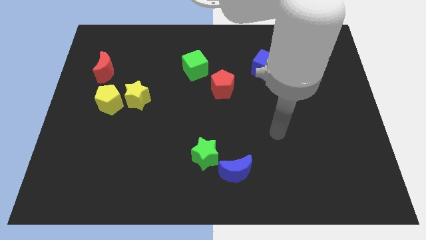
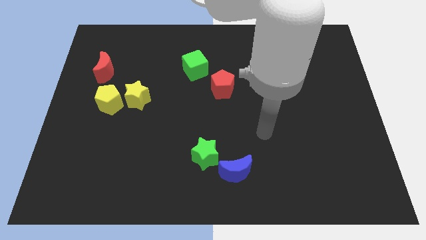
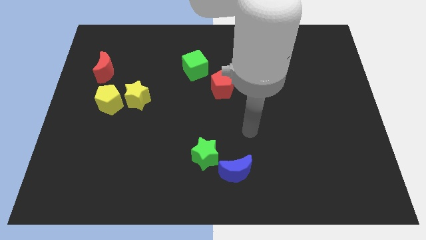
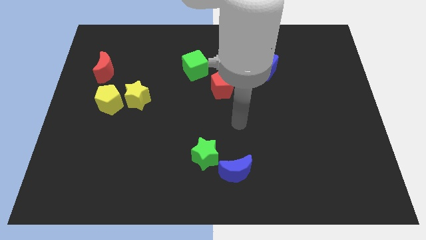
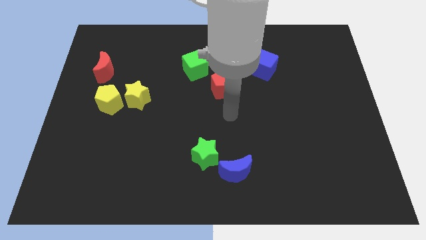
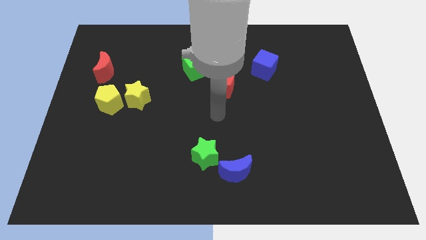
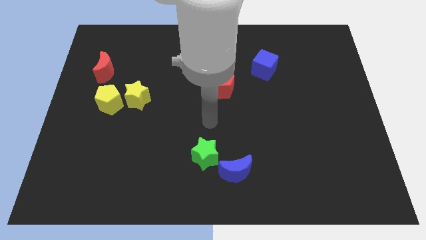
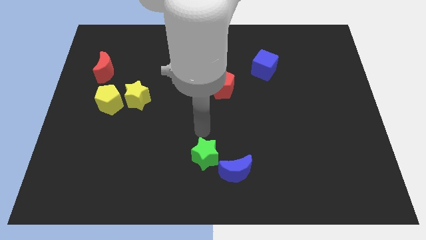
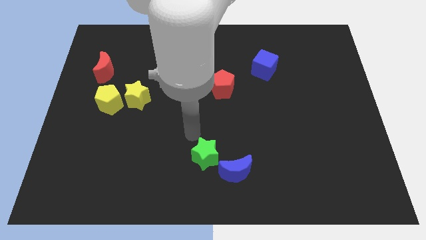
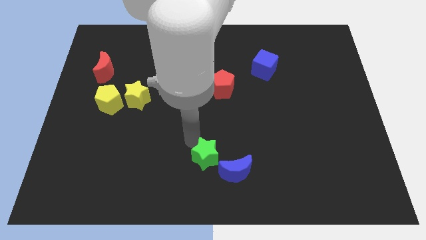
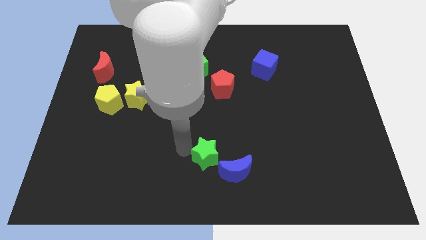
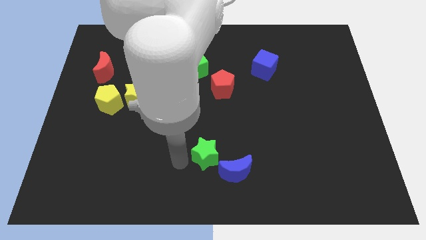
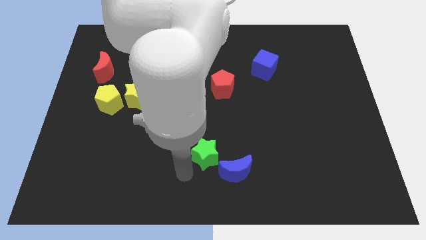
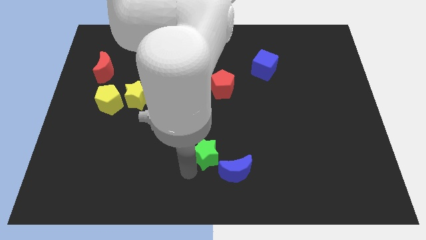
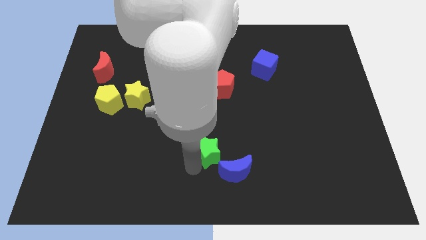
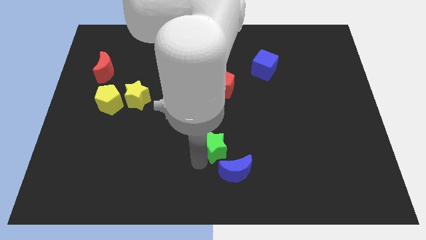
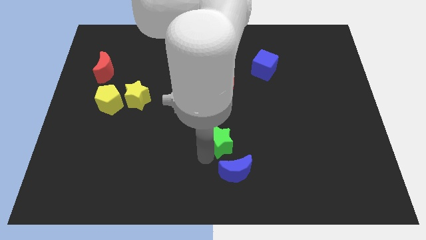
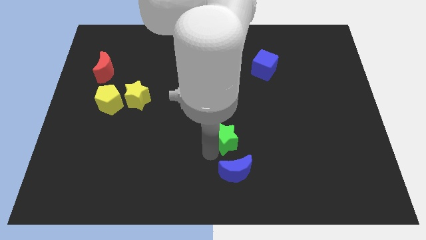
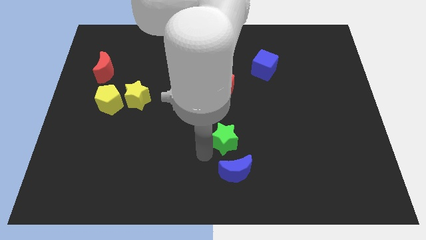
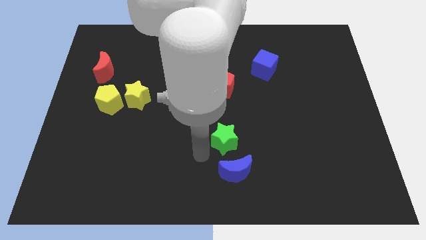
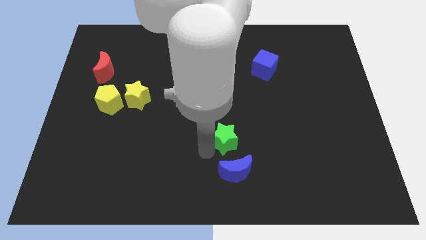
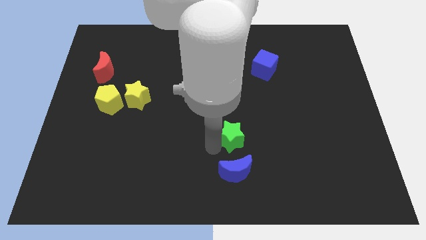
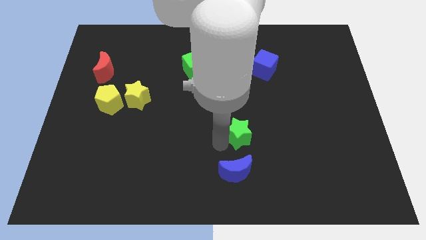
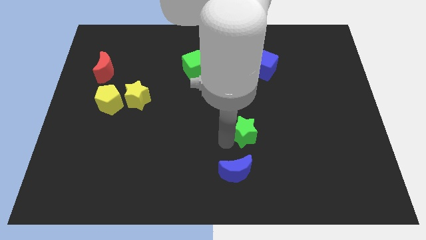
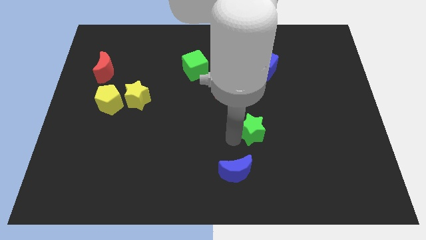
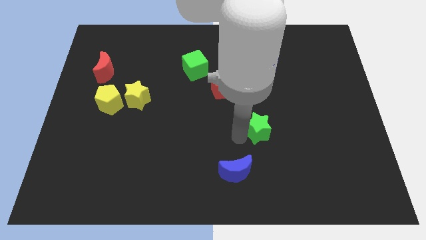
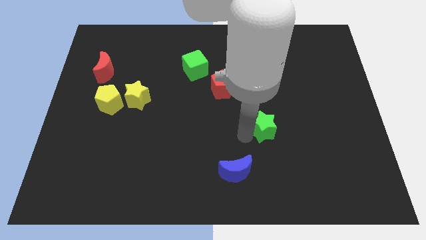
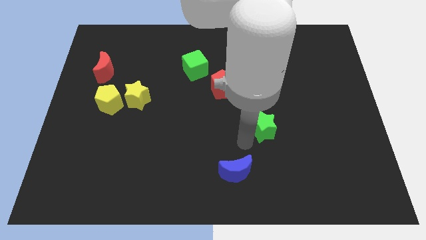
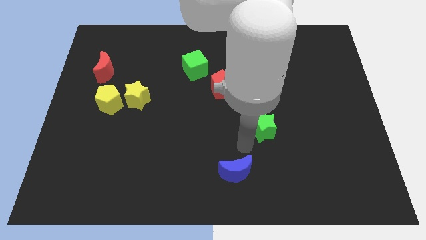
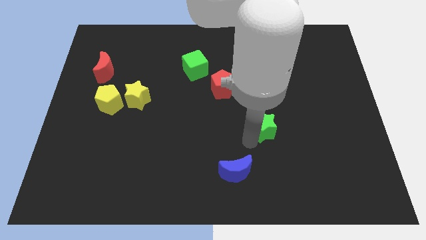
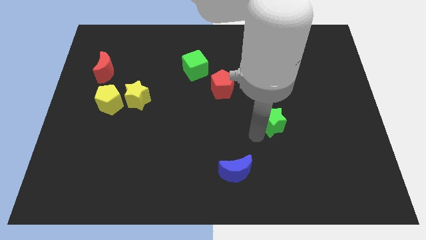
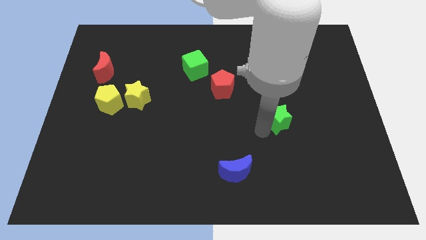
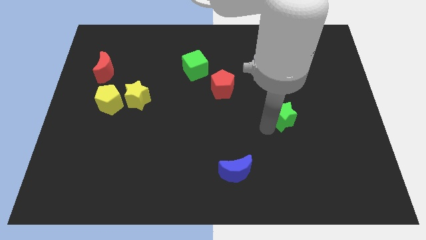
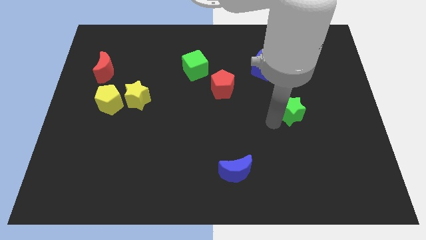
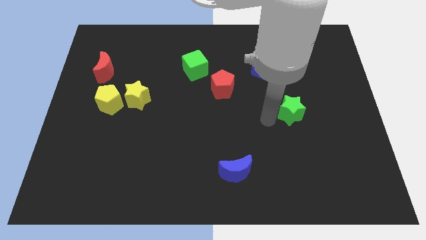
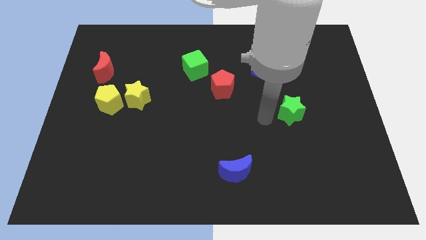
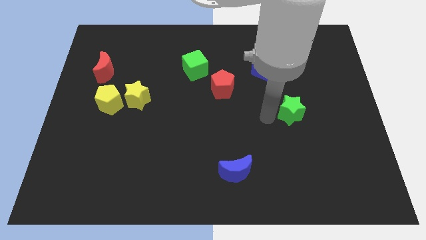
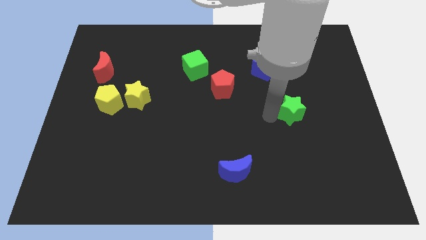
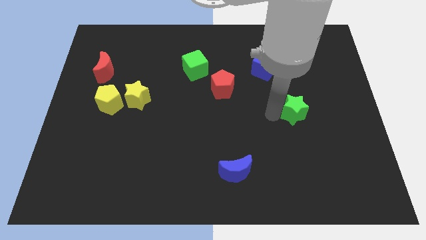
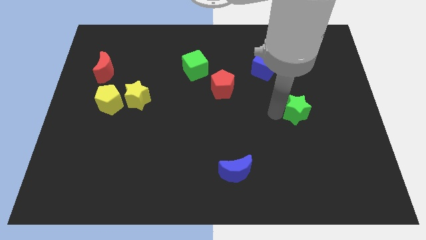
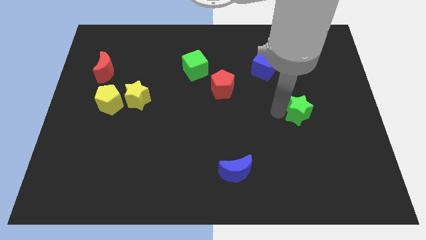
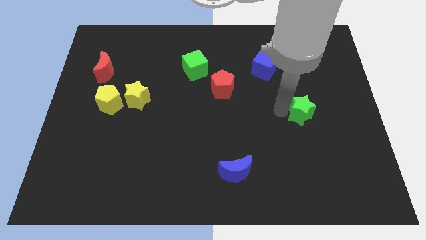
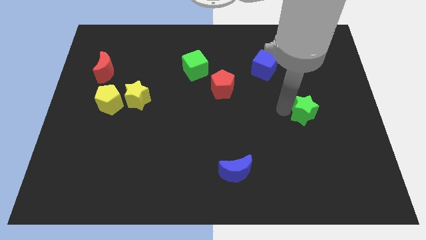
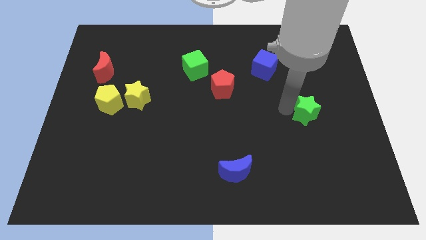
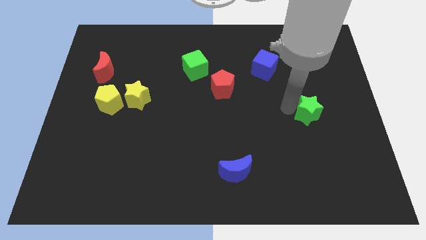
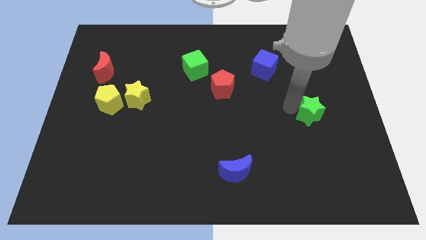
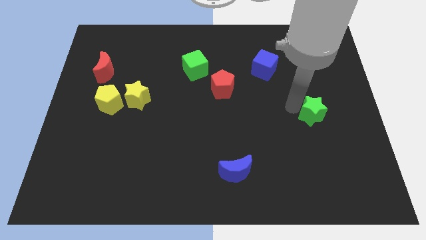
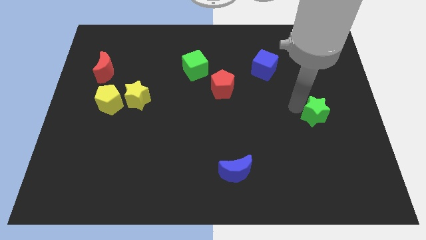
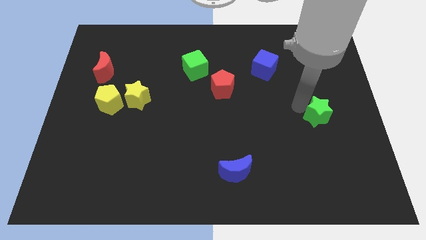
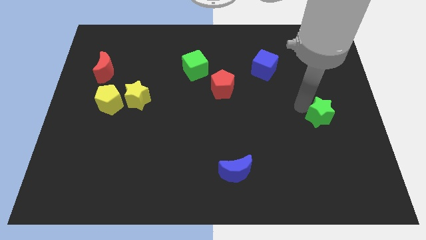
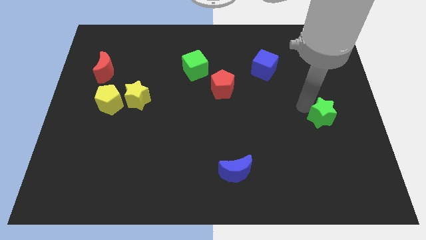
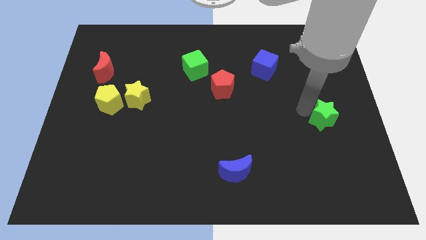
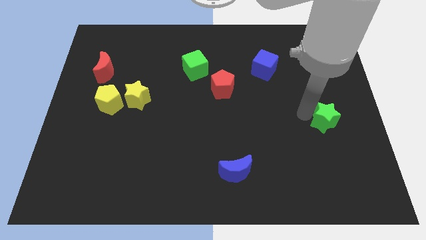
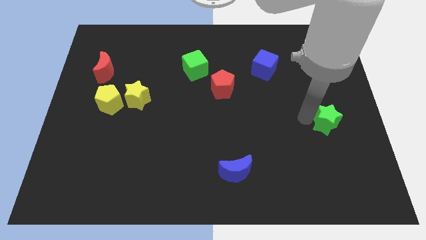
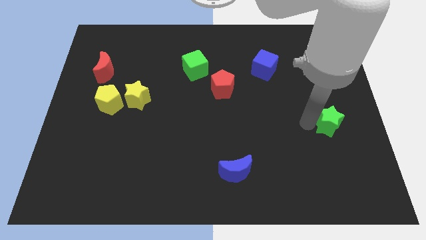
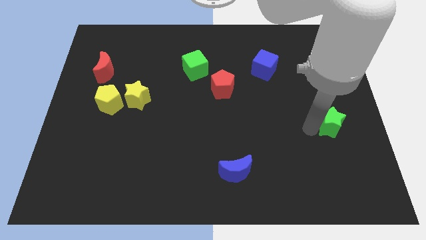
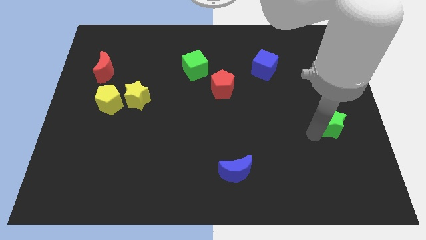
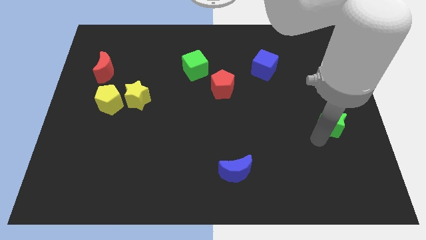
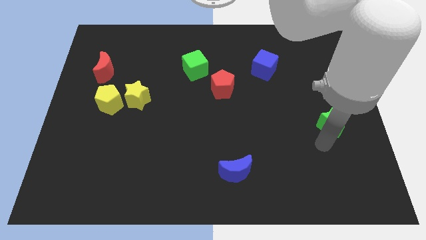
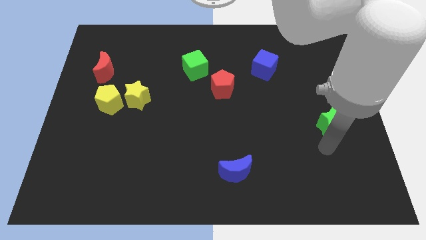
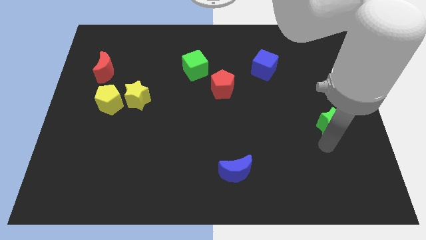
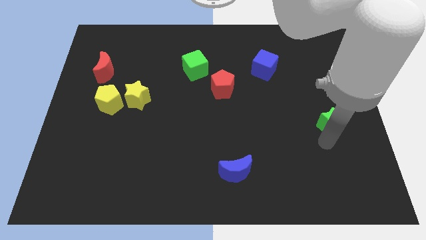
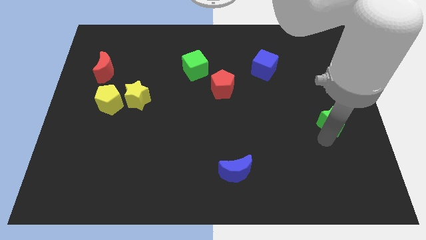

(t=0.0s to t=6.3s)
slide the green star to the right side of the board
